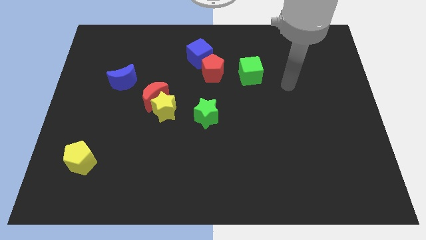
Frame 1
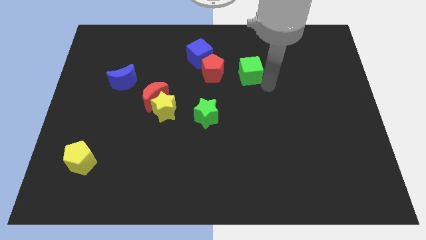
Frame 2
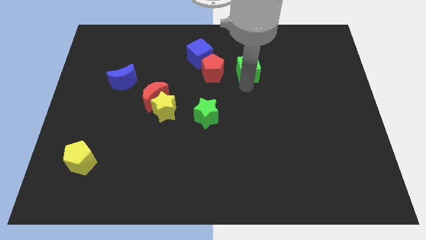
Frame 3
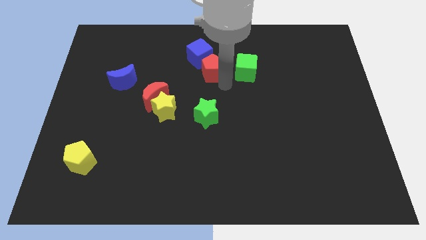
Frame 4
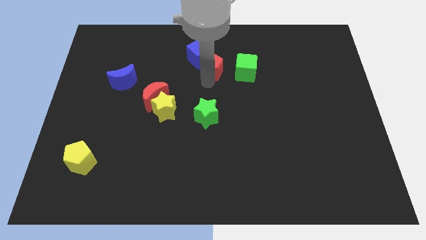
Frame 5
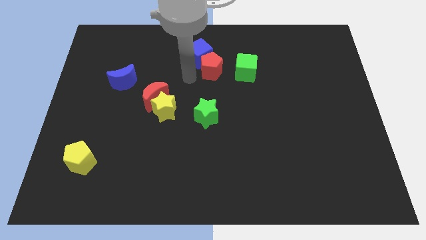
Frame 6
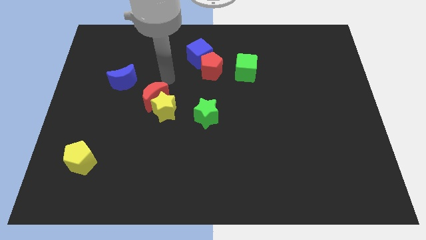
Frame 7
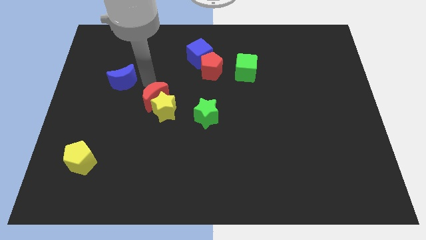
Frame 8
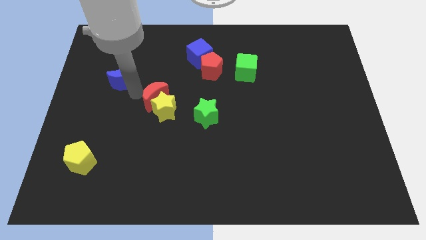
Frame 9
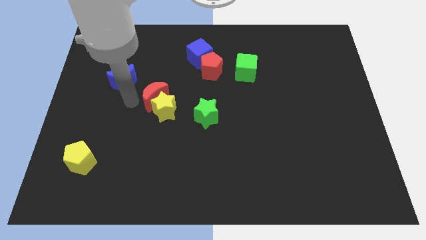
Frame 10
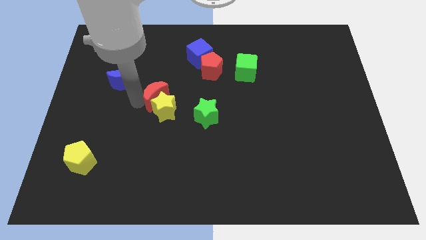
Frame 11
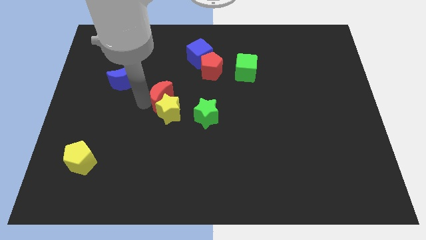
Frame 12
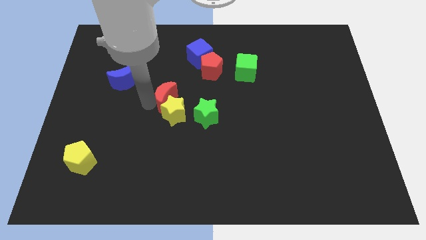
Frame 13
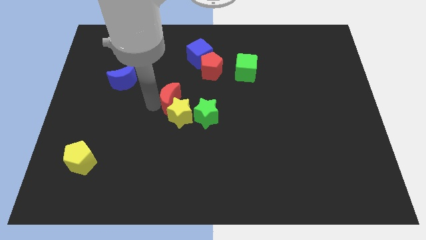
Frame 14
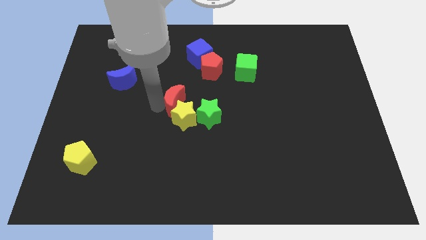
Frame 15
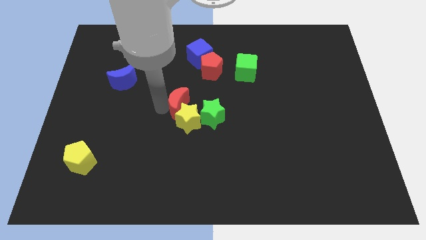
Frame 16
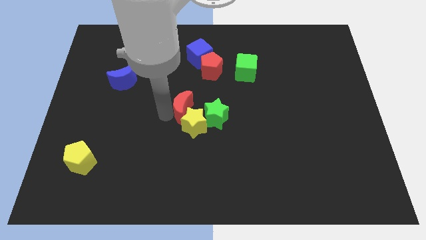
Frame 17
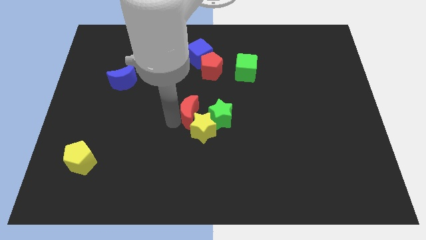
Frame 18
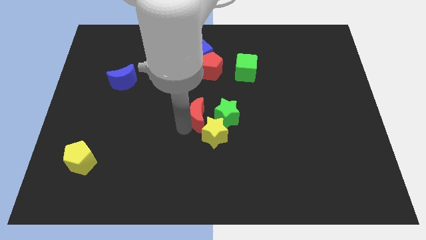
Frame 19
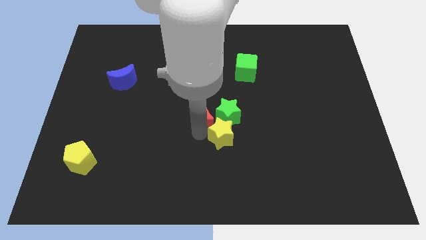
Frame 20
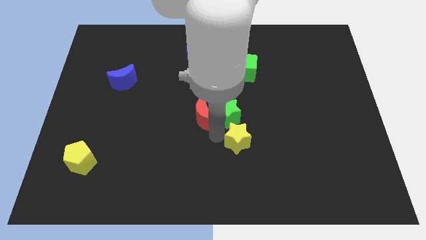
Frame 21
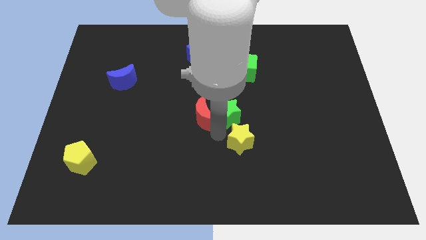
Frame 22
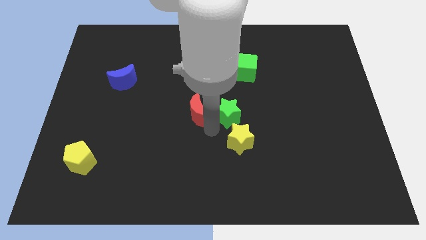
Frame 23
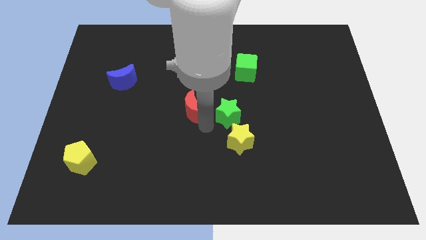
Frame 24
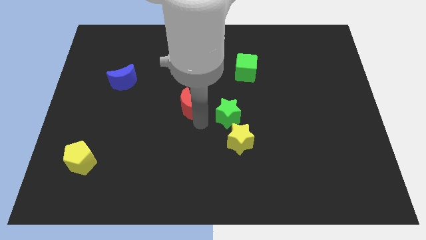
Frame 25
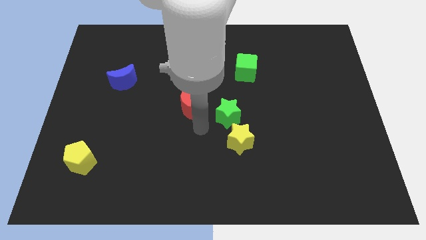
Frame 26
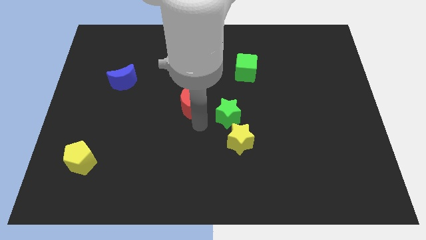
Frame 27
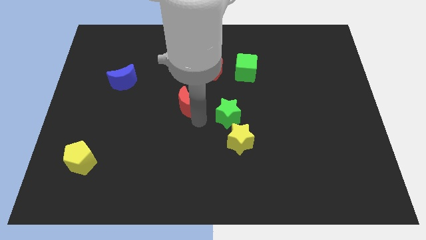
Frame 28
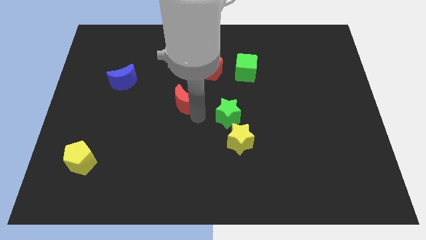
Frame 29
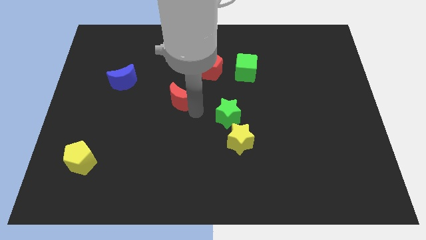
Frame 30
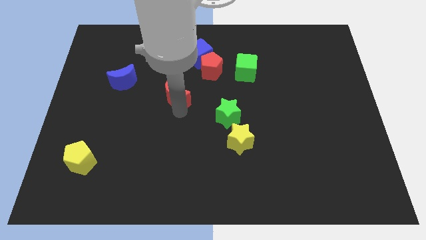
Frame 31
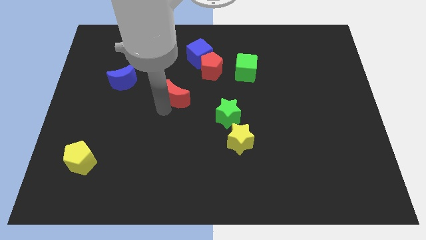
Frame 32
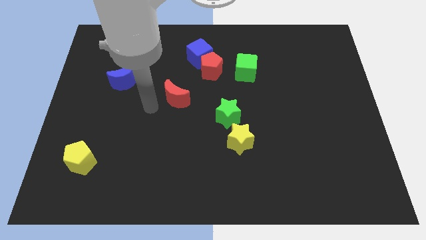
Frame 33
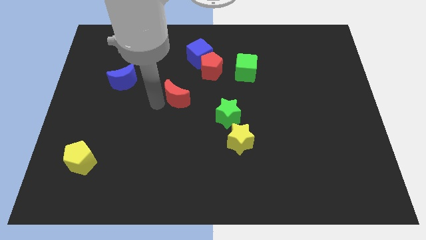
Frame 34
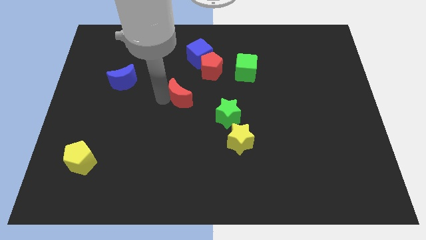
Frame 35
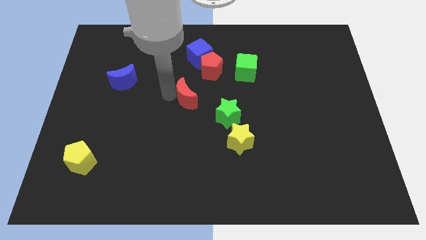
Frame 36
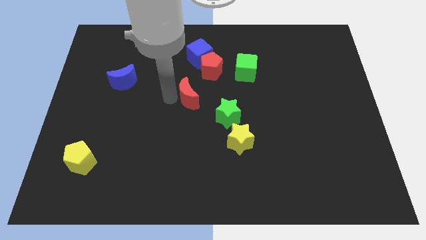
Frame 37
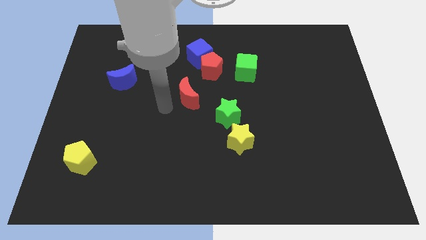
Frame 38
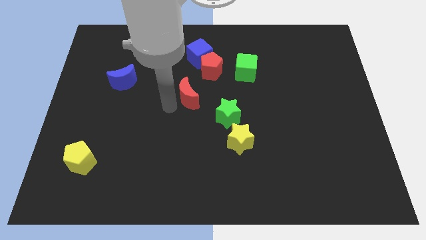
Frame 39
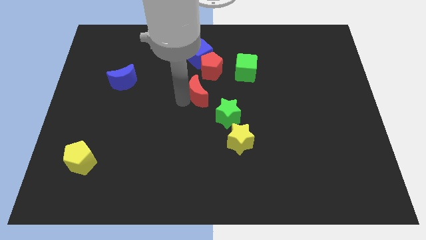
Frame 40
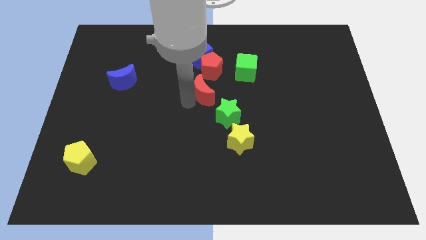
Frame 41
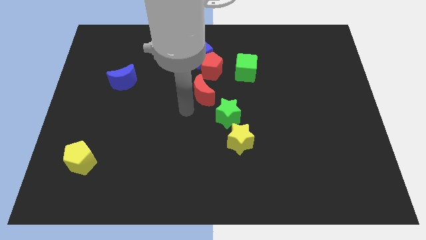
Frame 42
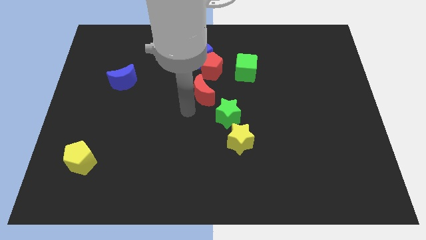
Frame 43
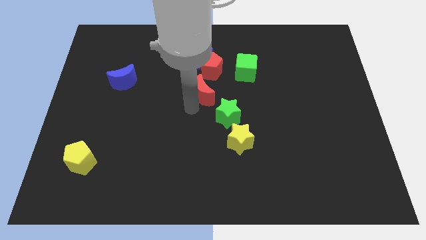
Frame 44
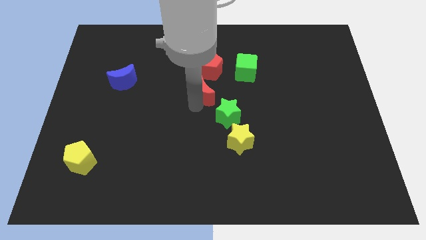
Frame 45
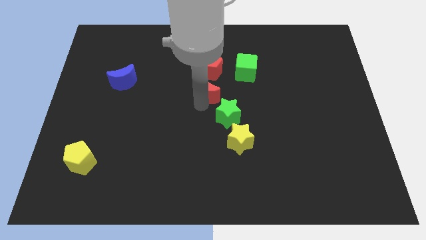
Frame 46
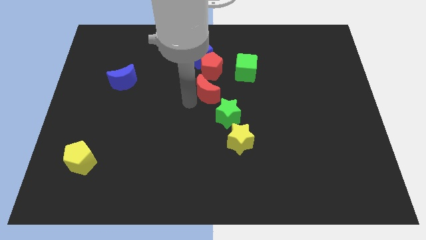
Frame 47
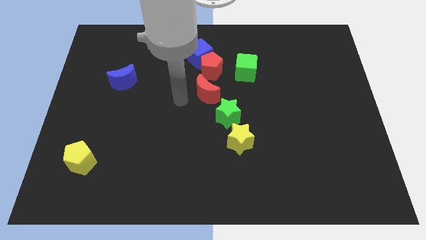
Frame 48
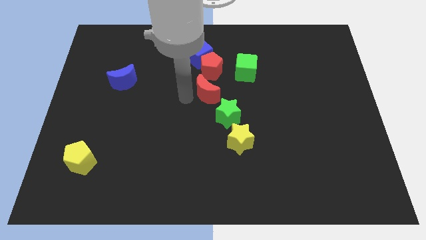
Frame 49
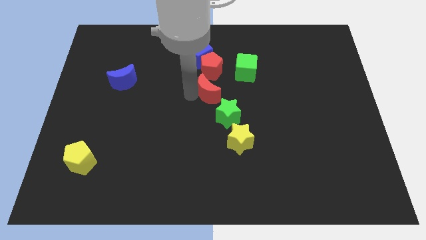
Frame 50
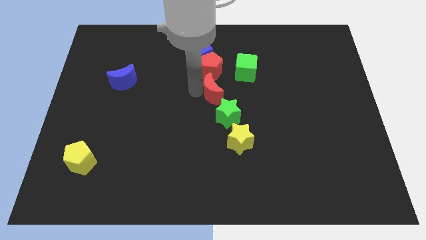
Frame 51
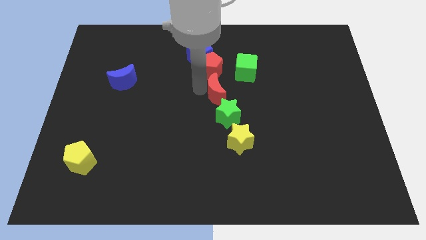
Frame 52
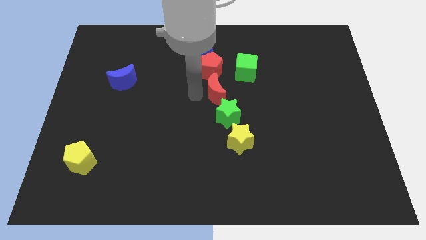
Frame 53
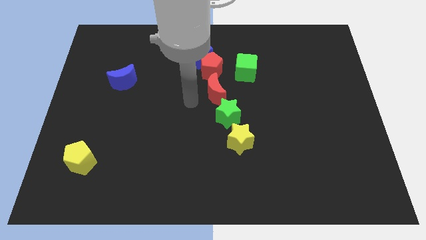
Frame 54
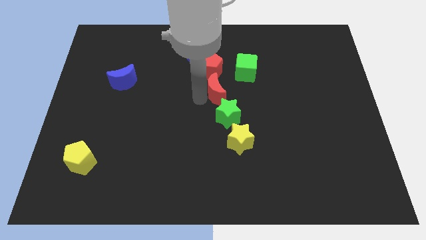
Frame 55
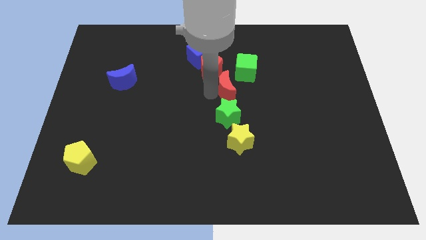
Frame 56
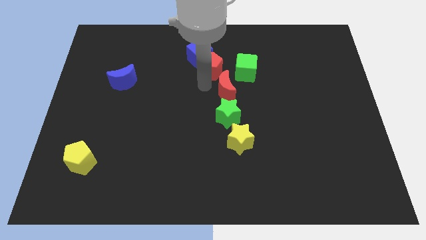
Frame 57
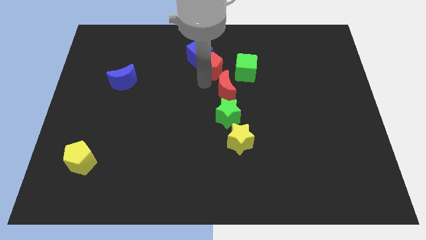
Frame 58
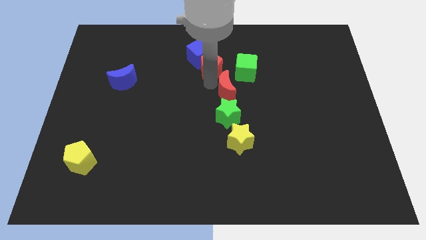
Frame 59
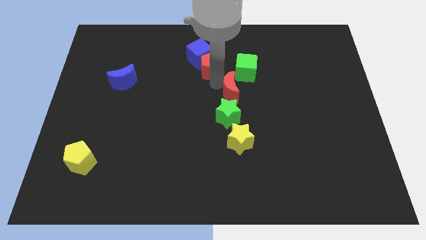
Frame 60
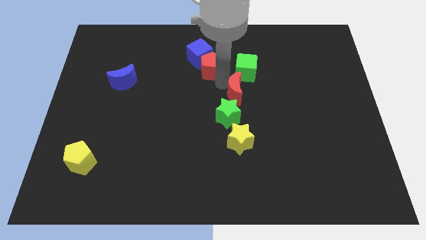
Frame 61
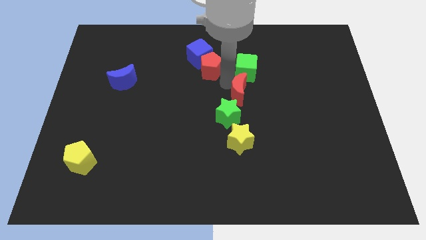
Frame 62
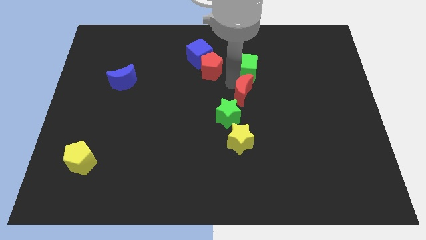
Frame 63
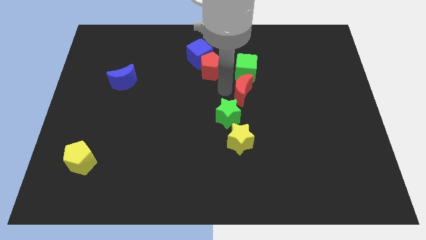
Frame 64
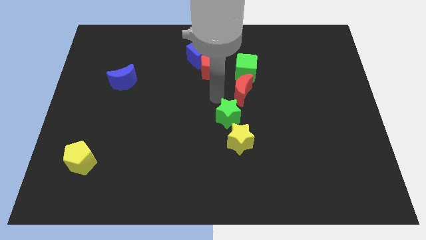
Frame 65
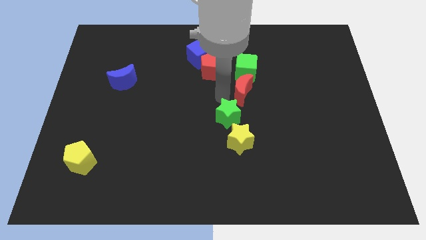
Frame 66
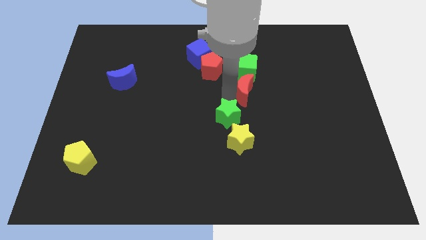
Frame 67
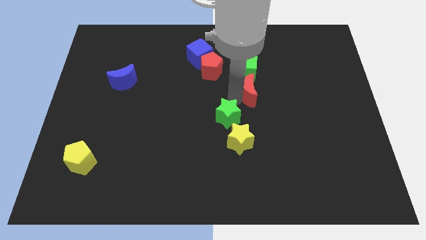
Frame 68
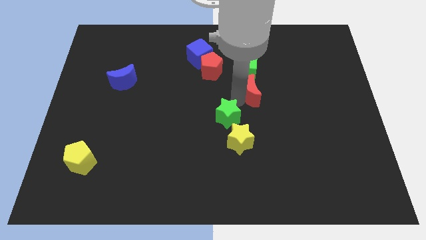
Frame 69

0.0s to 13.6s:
move the red moon to the bottom right of the green cube

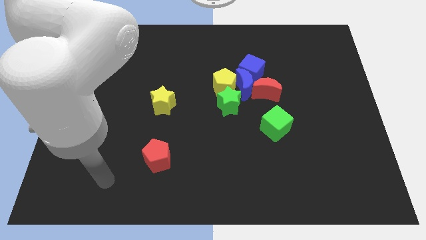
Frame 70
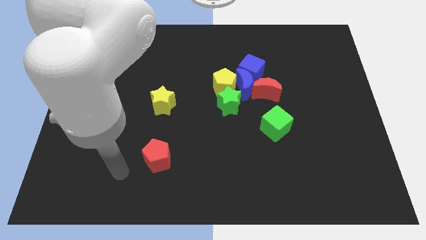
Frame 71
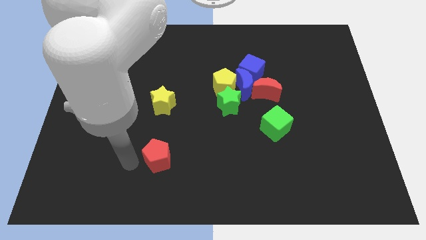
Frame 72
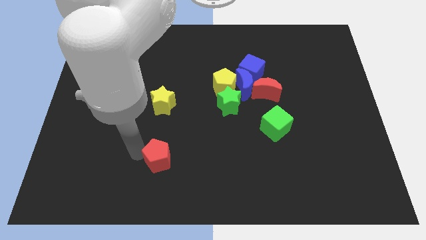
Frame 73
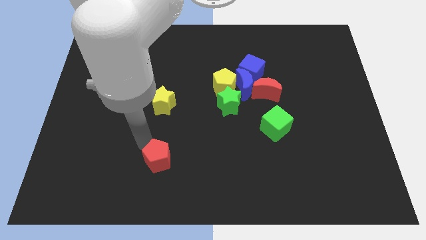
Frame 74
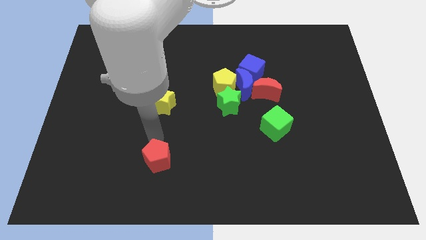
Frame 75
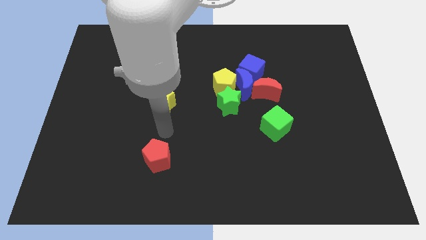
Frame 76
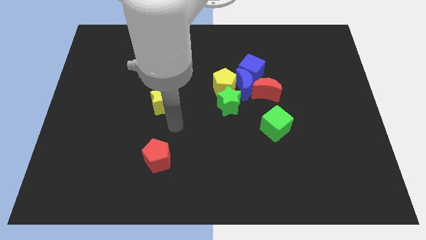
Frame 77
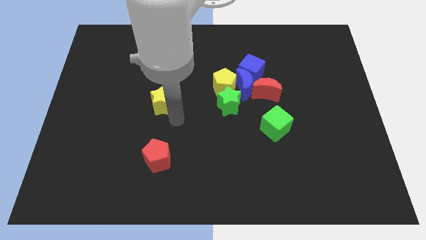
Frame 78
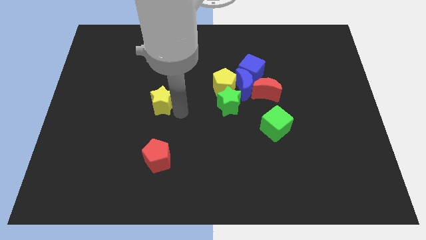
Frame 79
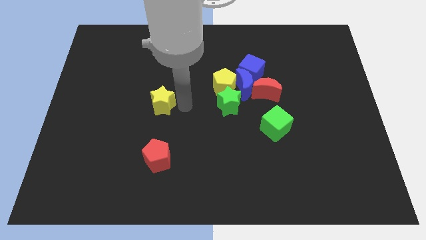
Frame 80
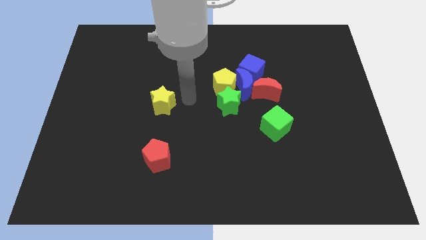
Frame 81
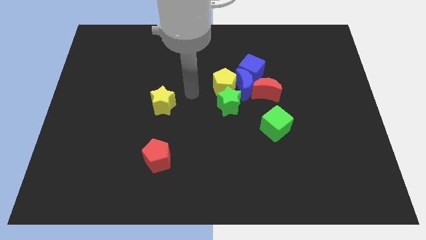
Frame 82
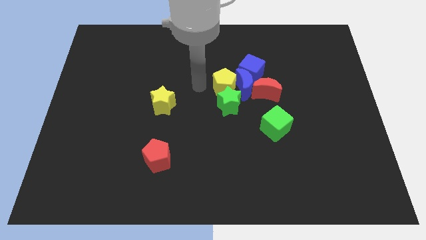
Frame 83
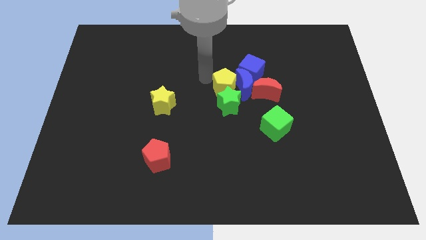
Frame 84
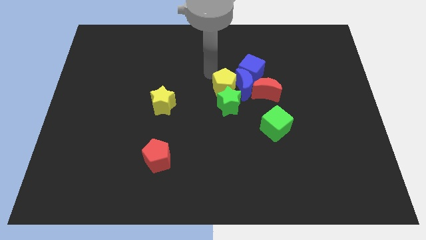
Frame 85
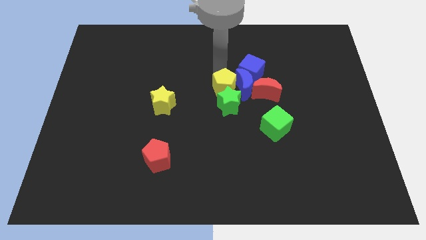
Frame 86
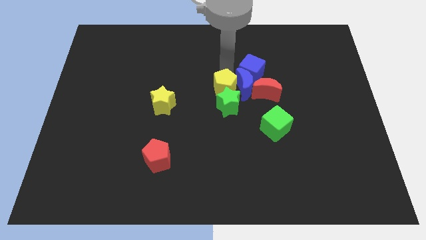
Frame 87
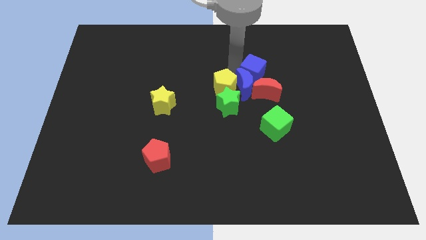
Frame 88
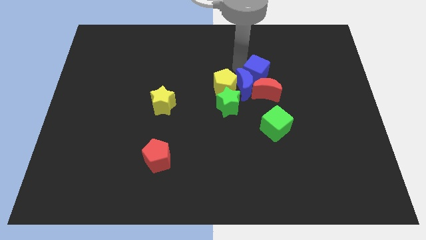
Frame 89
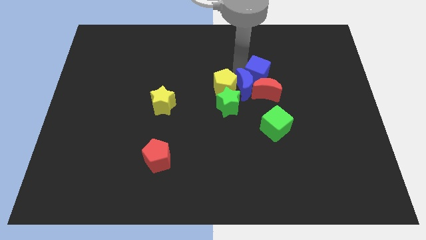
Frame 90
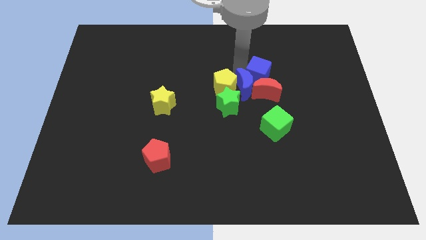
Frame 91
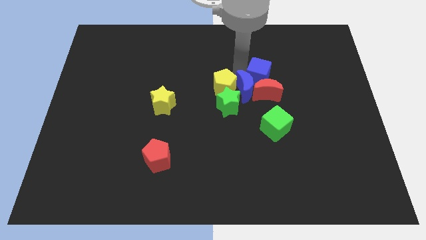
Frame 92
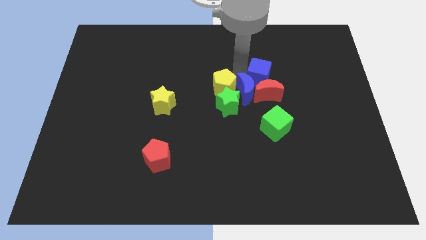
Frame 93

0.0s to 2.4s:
push the blue moon to the top left side of the green cube
